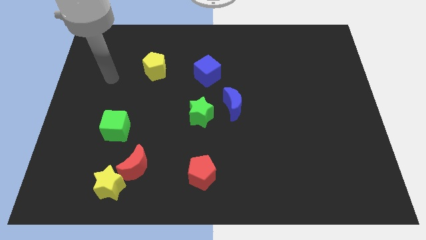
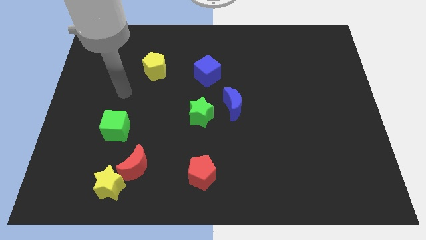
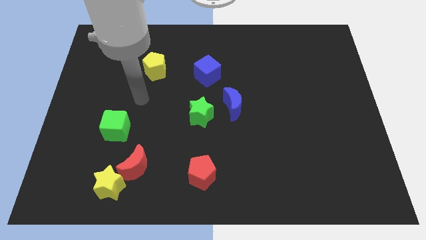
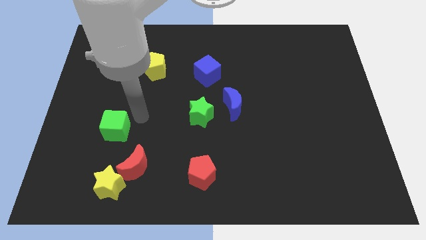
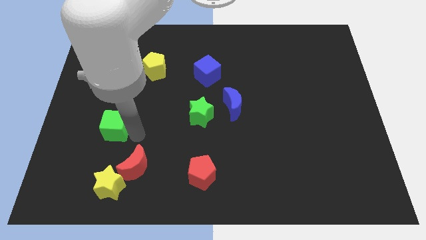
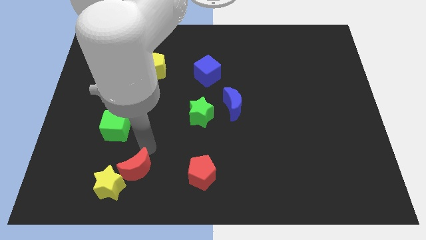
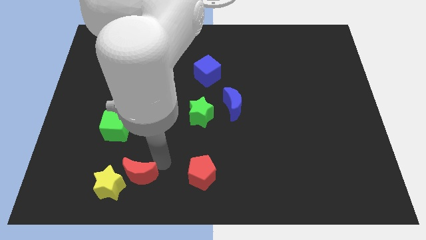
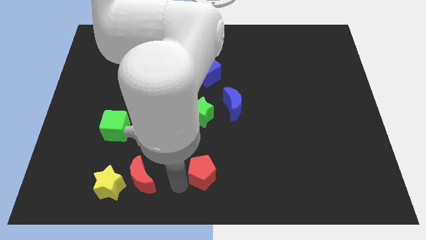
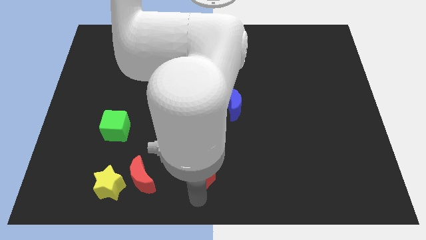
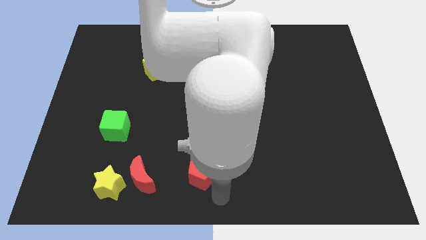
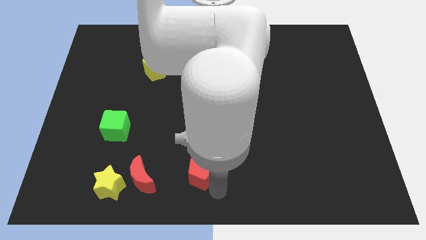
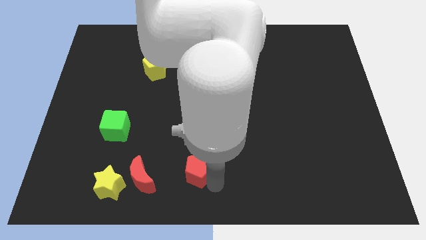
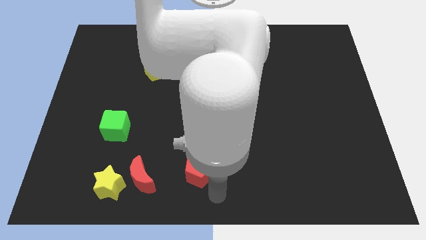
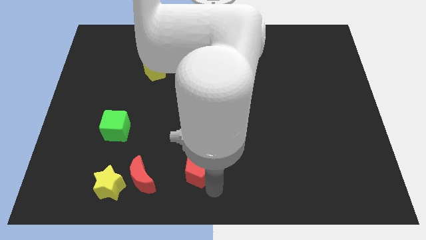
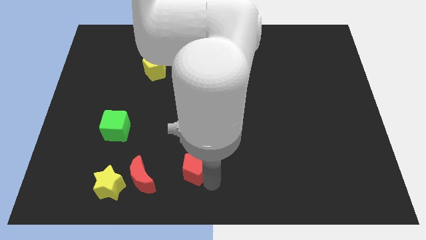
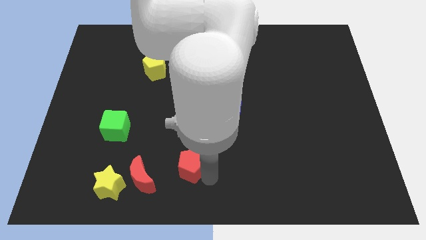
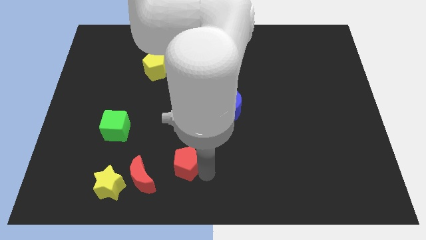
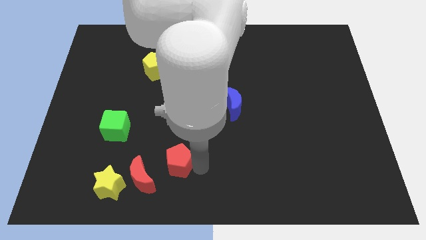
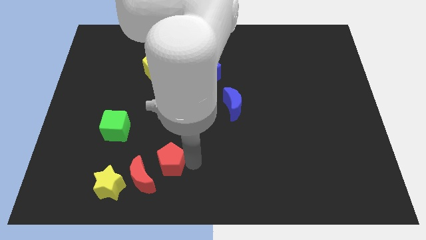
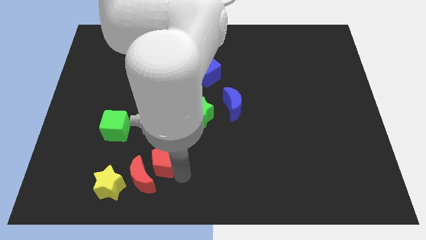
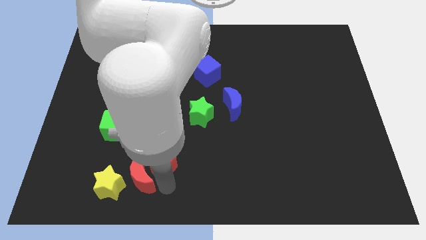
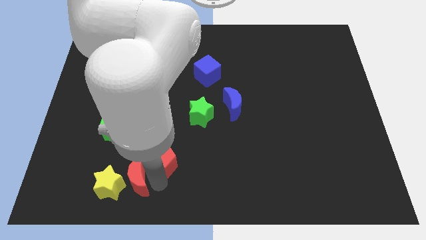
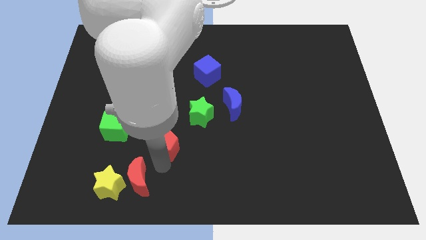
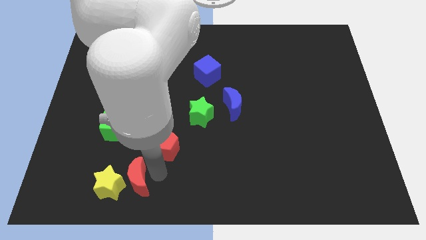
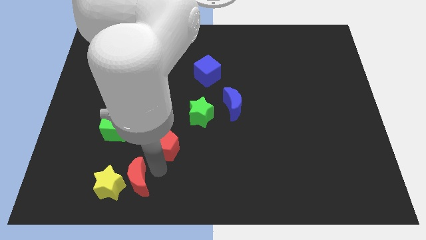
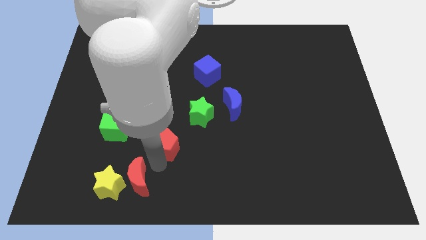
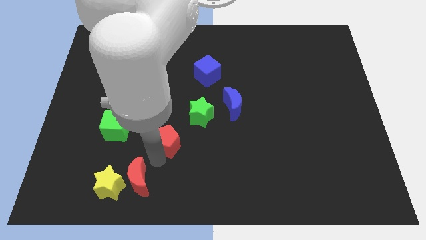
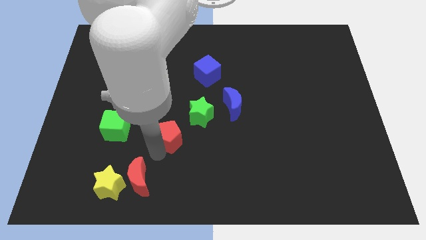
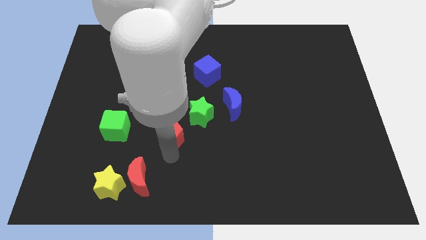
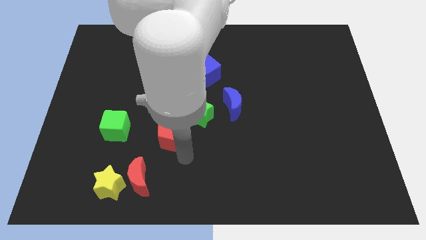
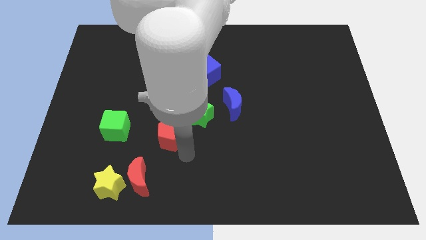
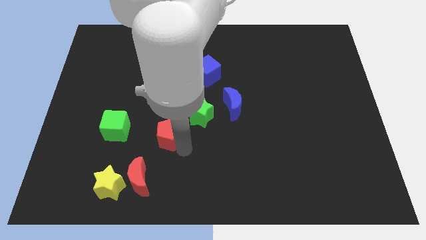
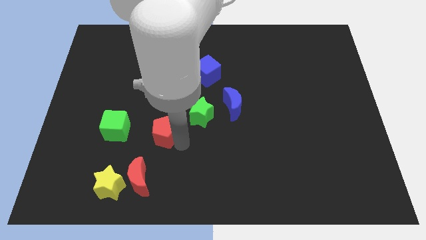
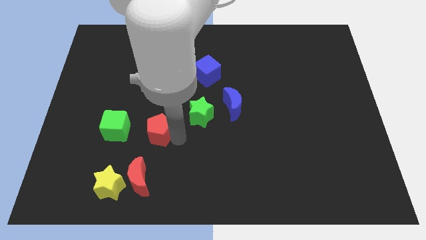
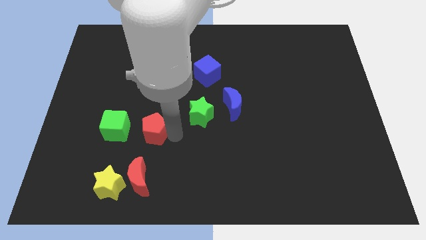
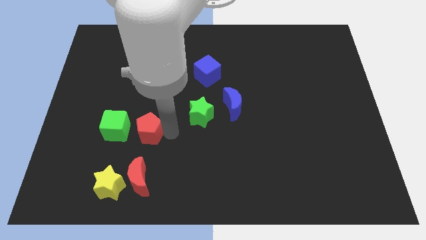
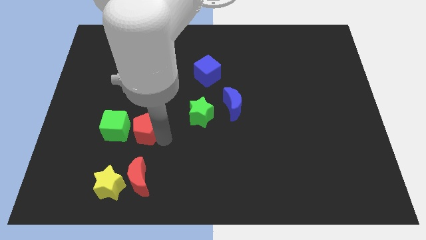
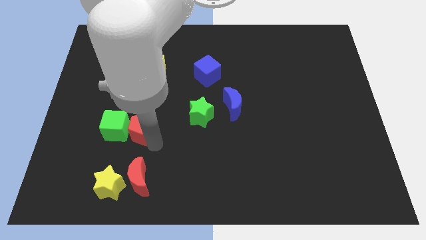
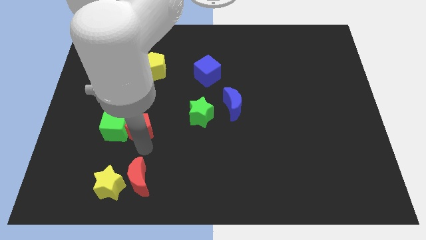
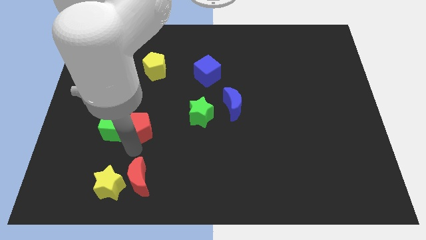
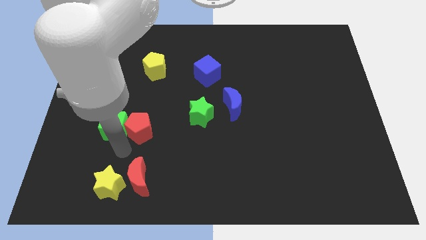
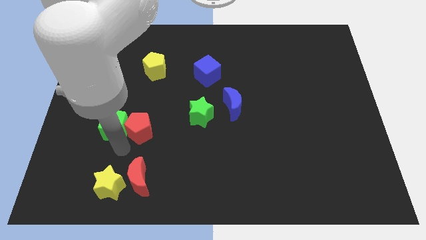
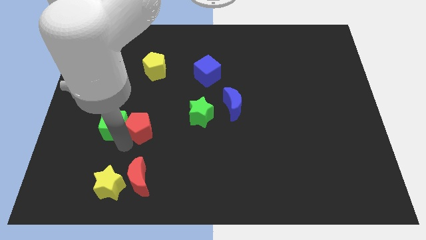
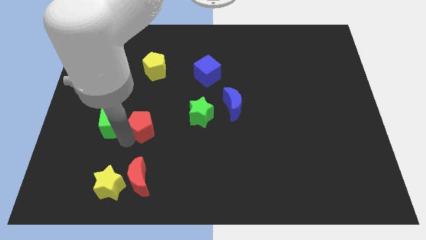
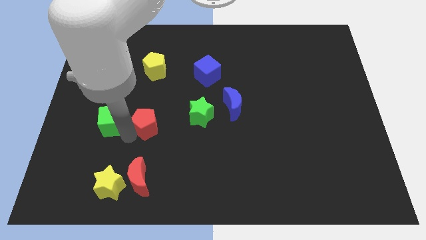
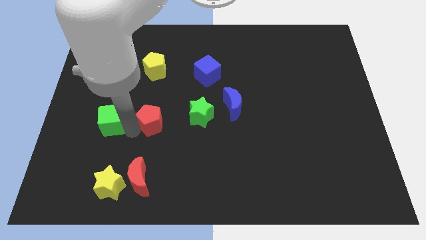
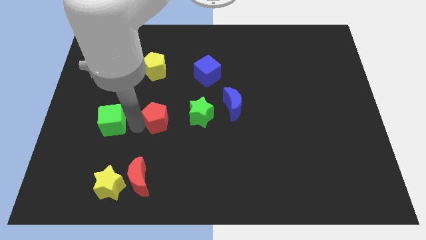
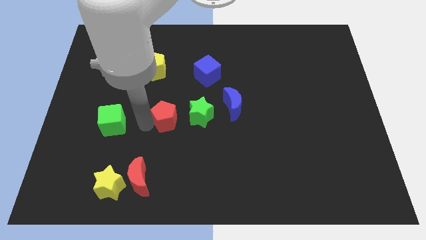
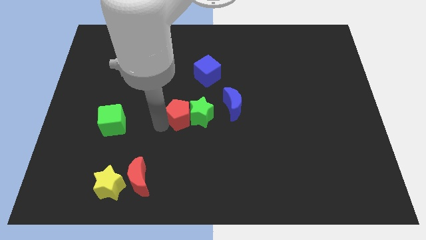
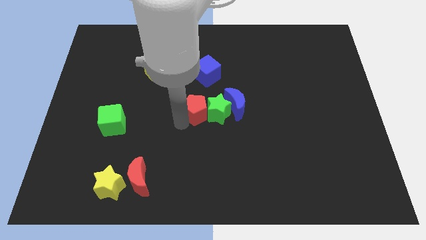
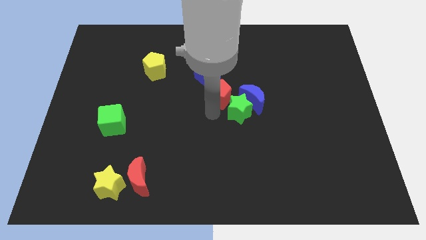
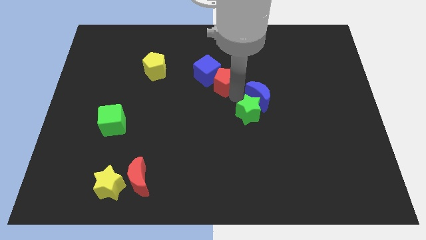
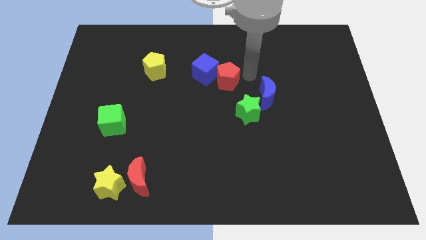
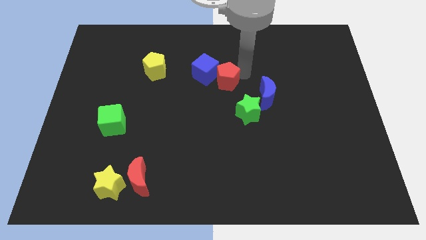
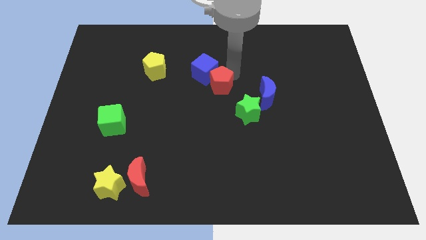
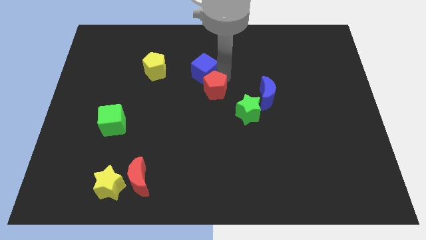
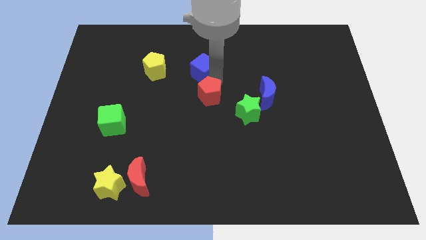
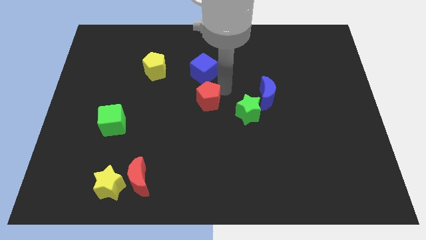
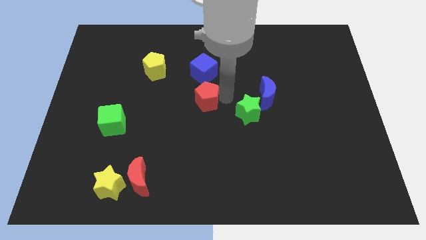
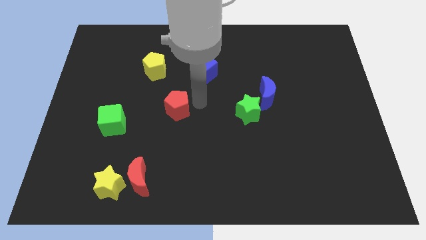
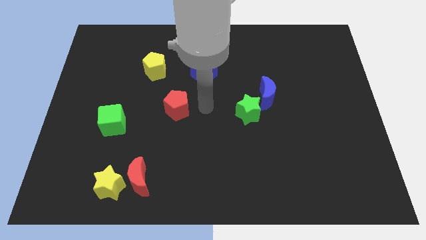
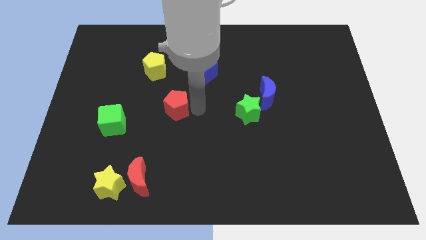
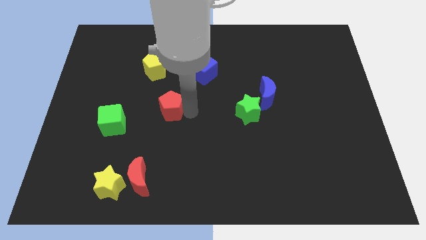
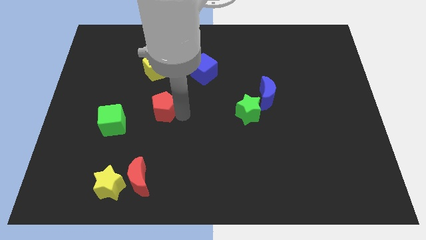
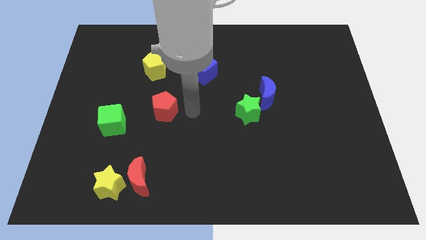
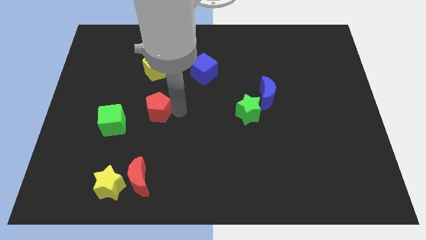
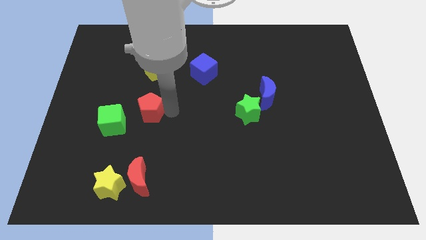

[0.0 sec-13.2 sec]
slide the red pentagon upwards and left

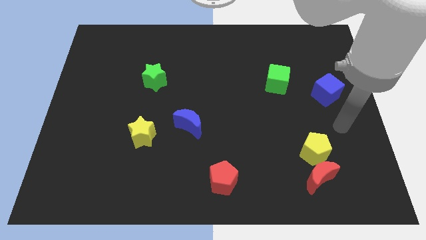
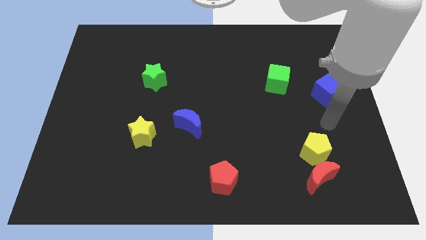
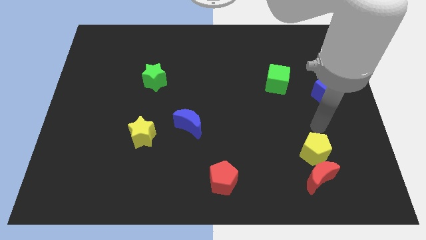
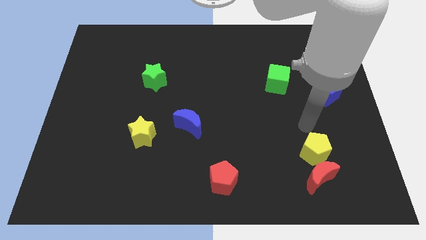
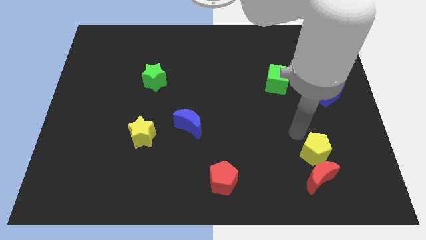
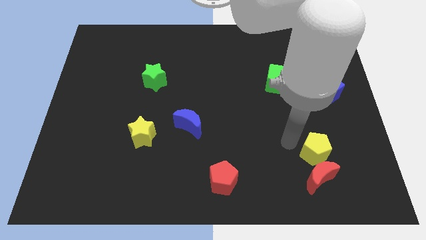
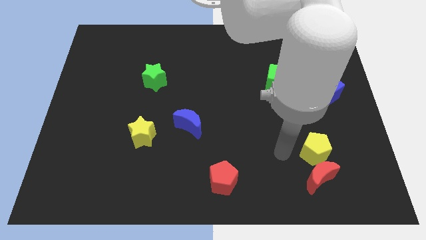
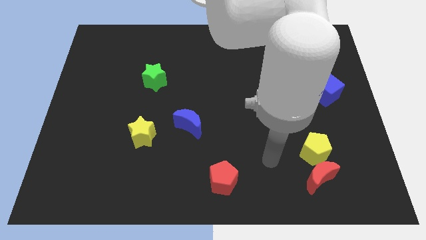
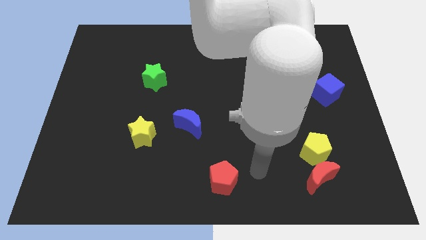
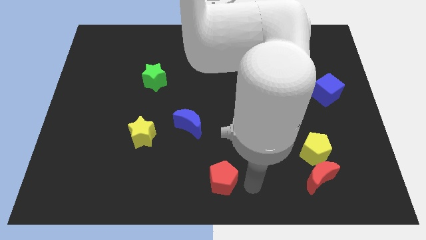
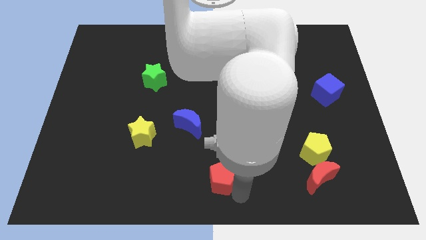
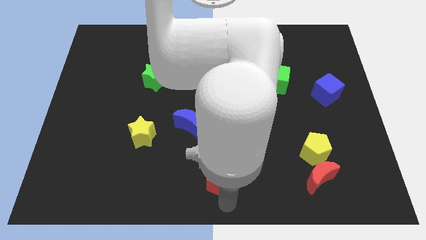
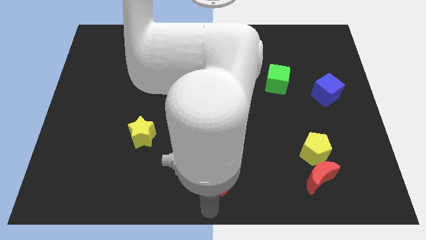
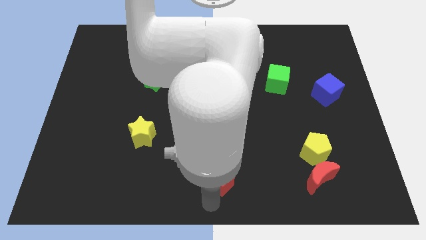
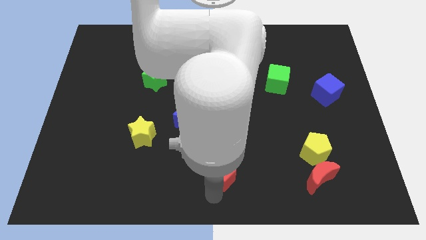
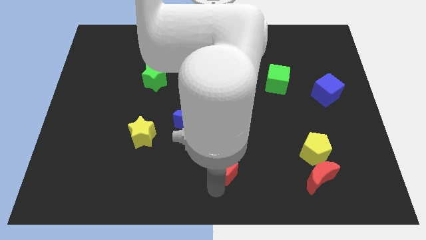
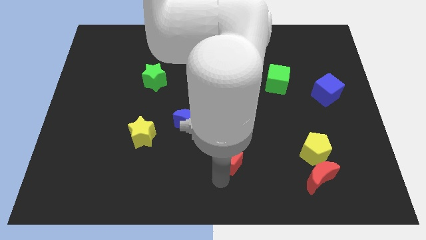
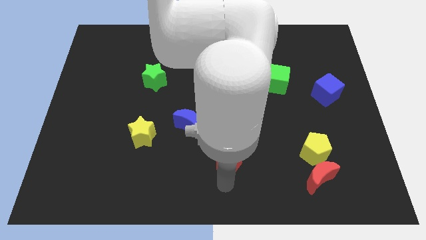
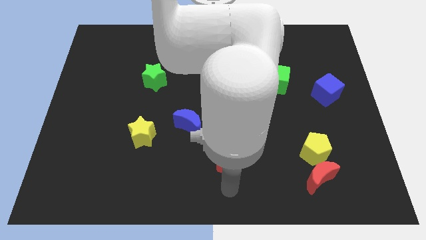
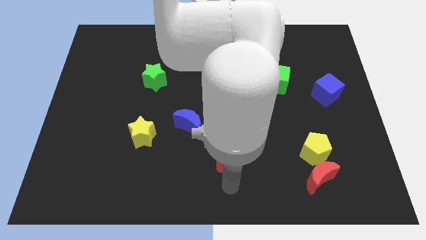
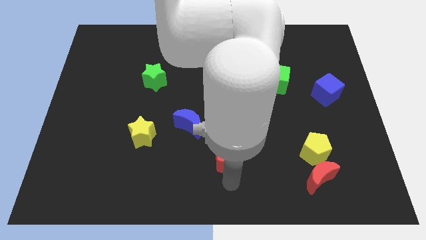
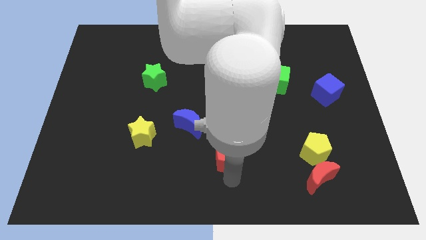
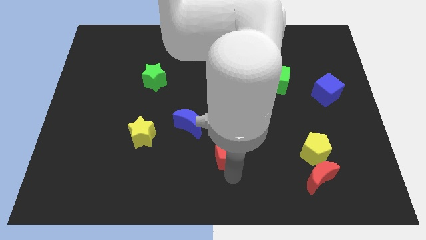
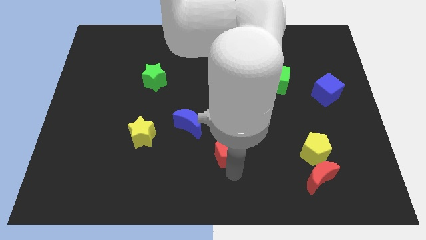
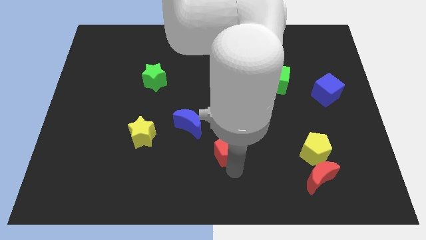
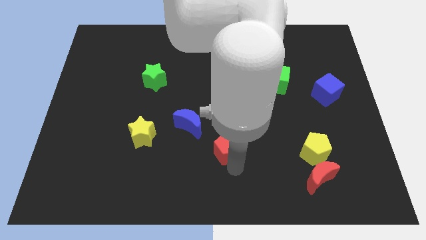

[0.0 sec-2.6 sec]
push the red pentagon a bit up
